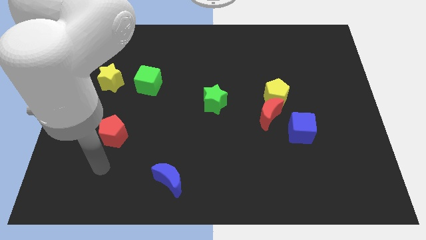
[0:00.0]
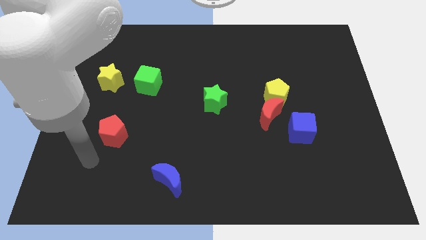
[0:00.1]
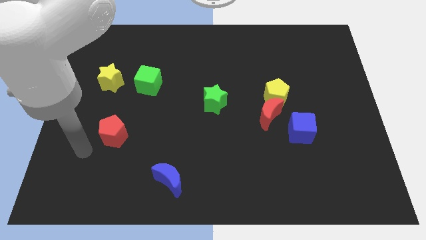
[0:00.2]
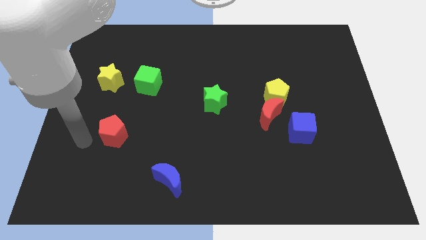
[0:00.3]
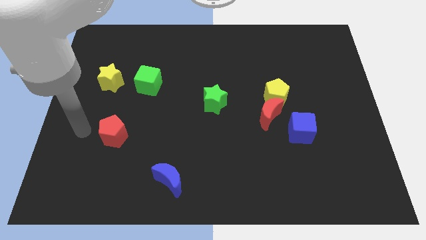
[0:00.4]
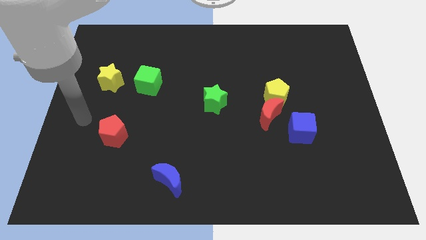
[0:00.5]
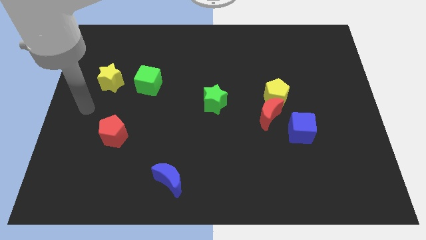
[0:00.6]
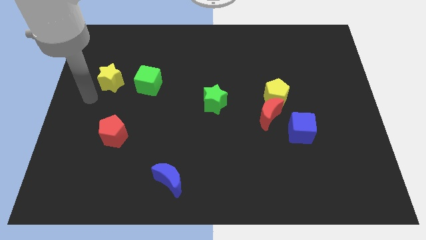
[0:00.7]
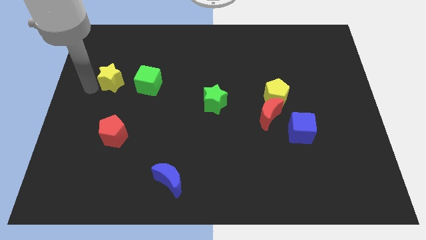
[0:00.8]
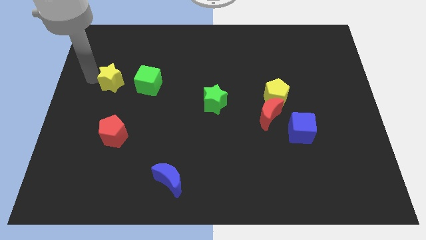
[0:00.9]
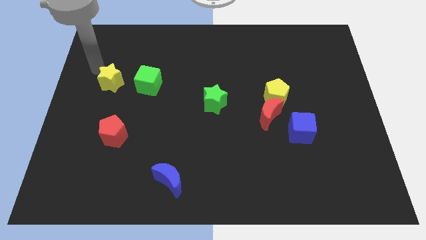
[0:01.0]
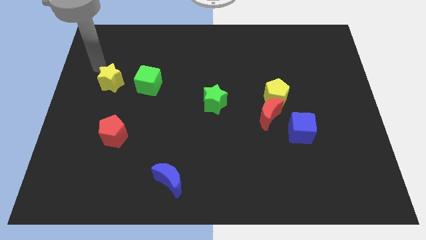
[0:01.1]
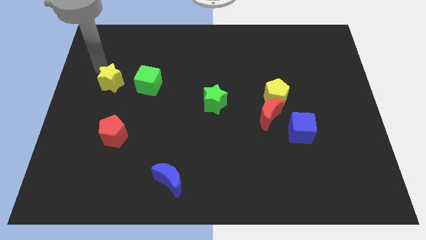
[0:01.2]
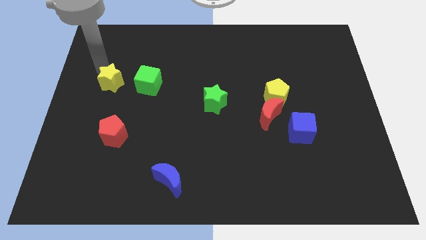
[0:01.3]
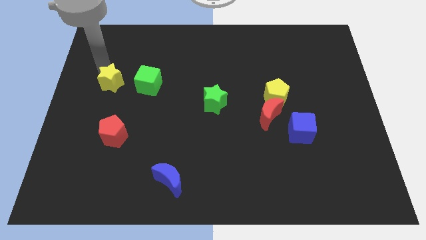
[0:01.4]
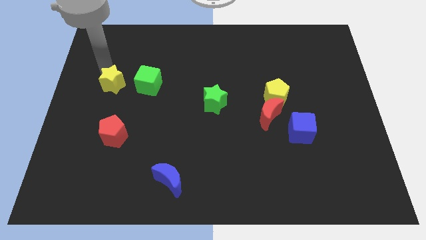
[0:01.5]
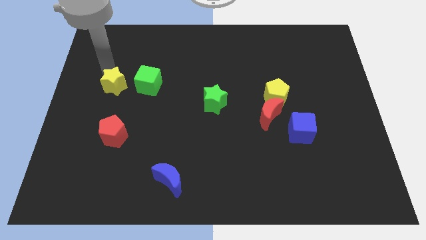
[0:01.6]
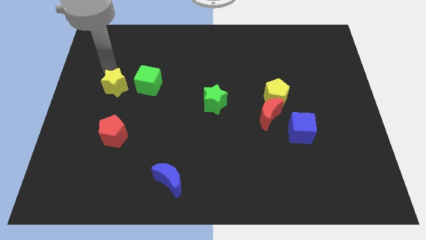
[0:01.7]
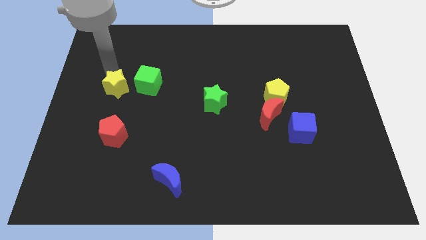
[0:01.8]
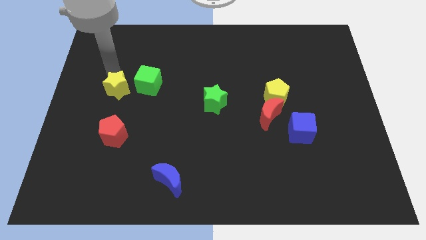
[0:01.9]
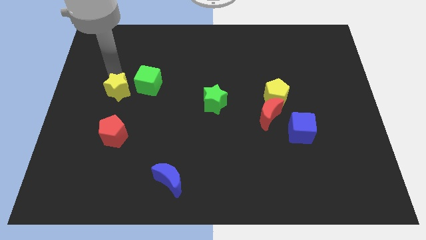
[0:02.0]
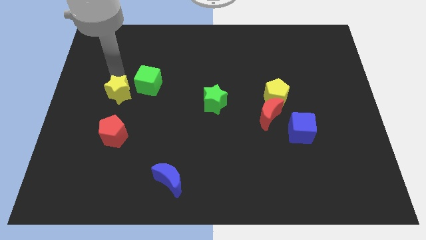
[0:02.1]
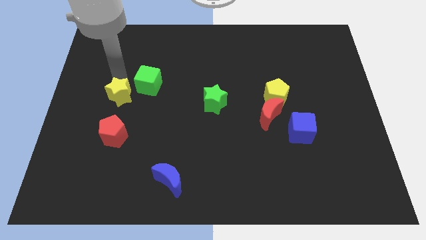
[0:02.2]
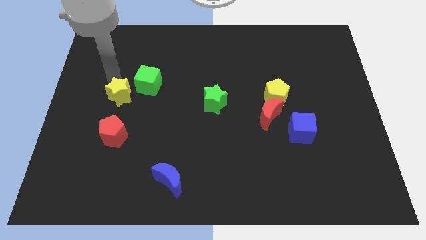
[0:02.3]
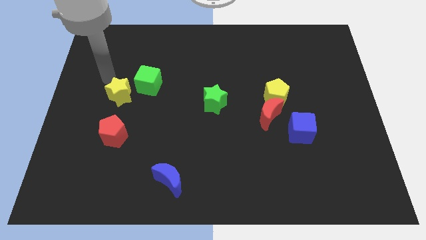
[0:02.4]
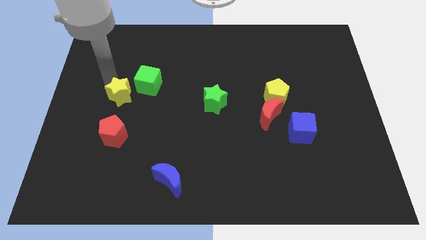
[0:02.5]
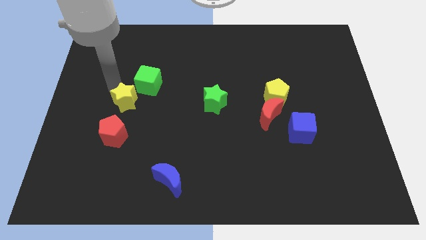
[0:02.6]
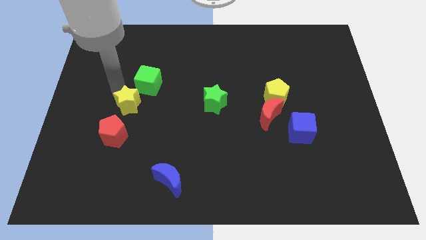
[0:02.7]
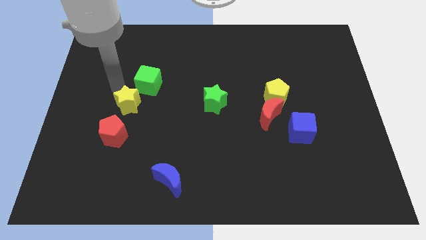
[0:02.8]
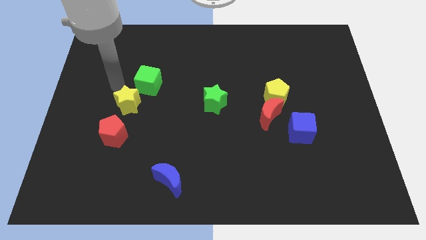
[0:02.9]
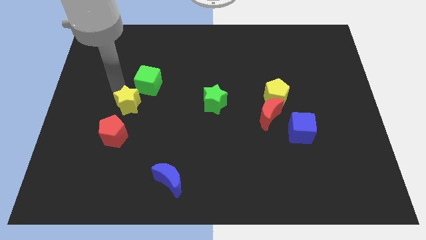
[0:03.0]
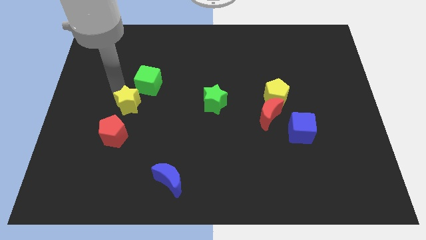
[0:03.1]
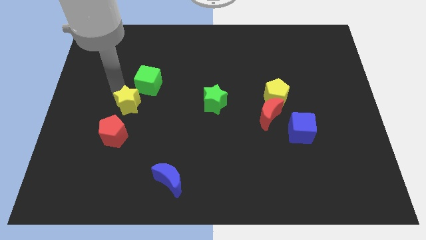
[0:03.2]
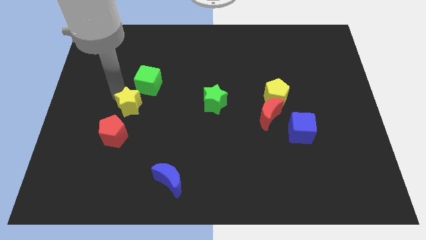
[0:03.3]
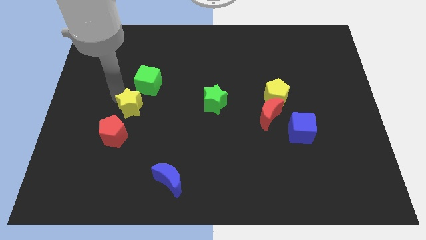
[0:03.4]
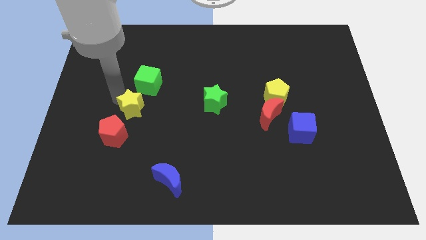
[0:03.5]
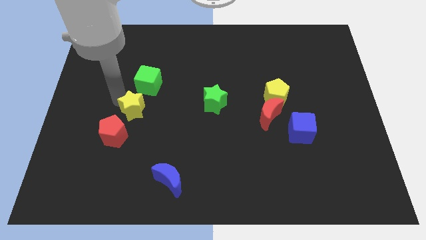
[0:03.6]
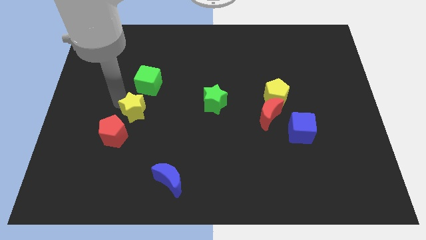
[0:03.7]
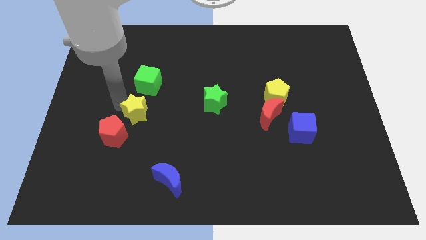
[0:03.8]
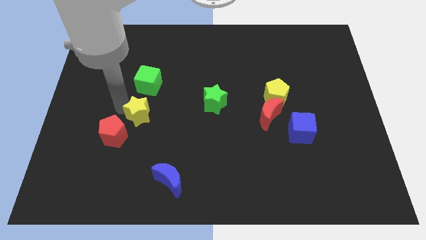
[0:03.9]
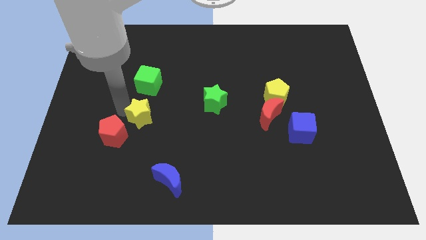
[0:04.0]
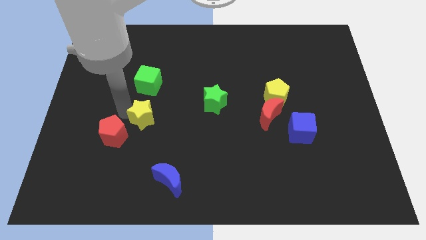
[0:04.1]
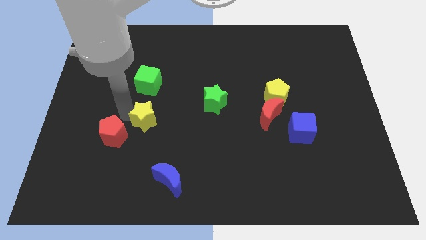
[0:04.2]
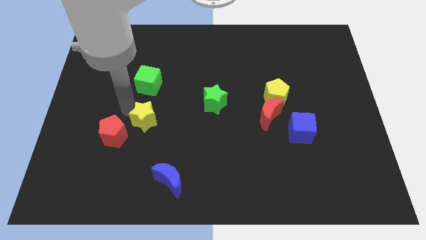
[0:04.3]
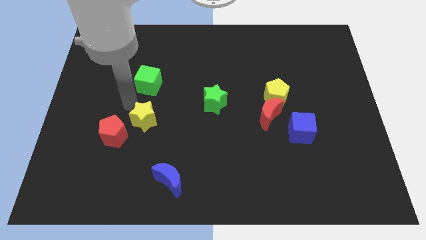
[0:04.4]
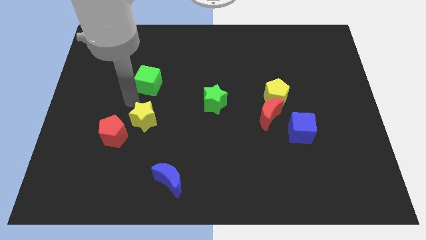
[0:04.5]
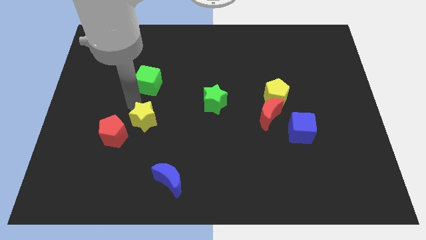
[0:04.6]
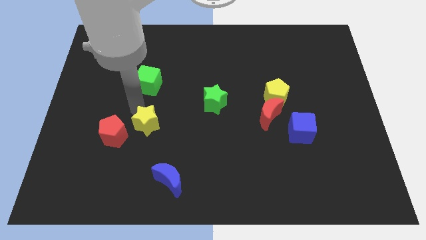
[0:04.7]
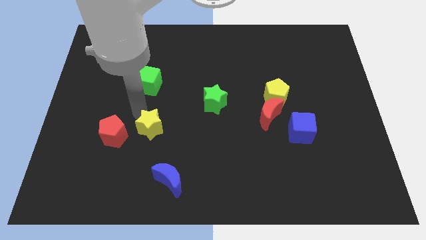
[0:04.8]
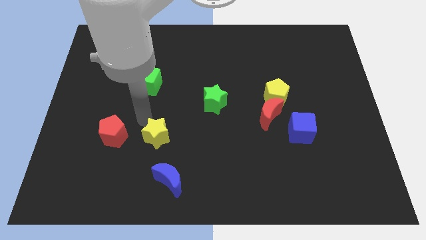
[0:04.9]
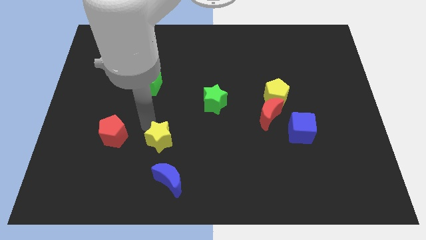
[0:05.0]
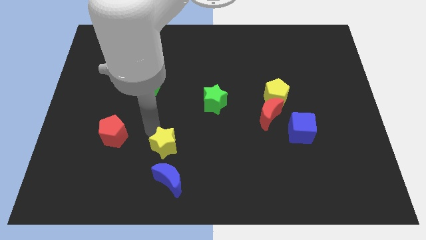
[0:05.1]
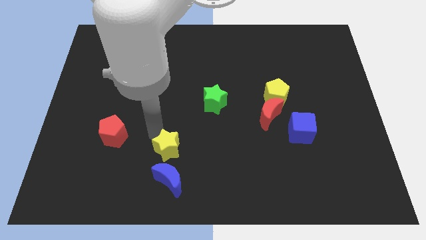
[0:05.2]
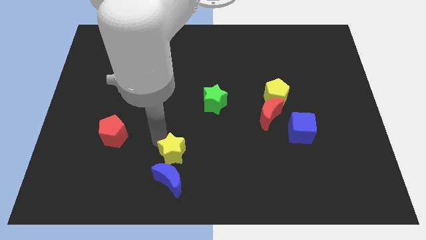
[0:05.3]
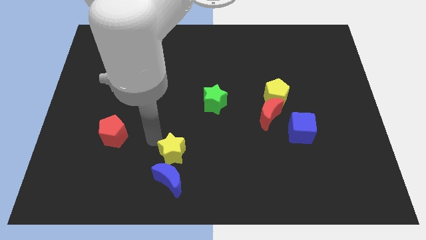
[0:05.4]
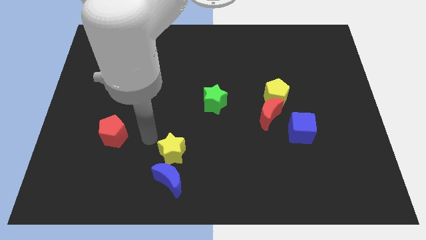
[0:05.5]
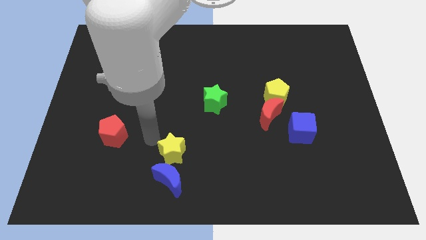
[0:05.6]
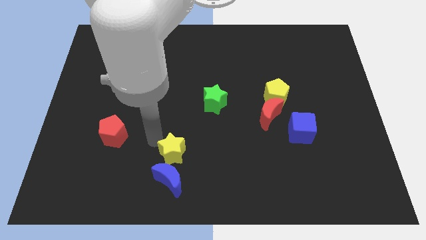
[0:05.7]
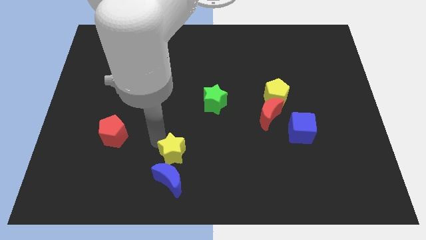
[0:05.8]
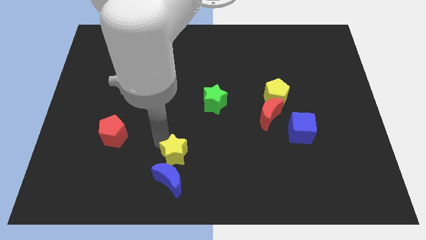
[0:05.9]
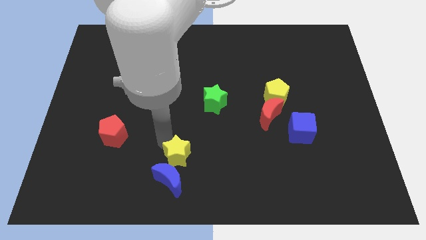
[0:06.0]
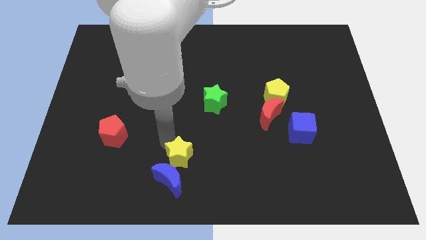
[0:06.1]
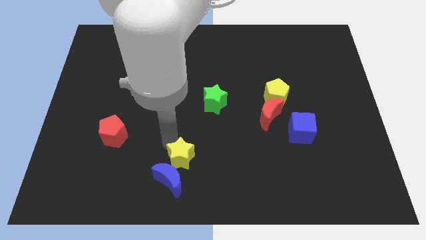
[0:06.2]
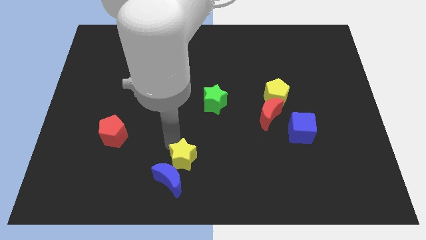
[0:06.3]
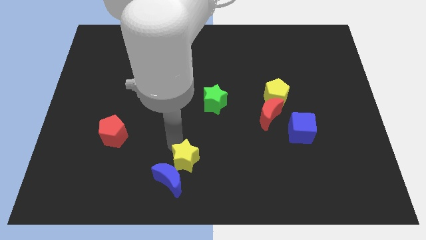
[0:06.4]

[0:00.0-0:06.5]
put the yellow star to the bottom side
